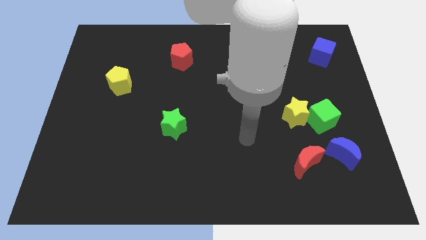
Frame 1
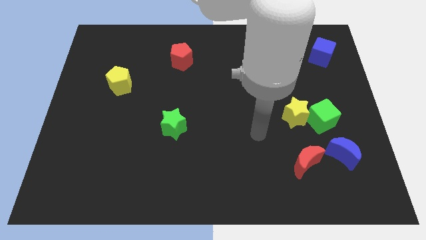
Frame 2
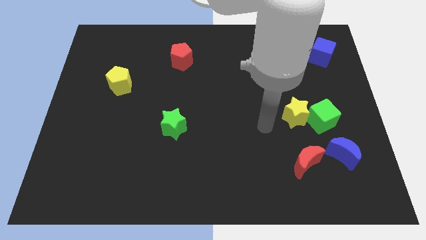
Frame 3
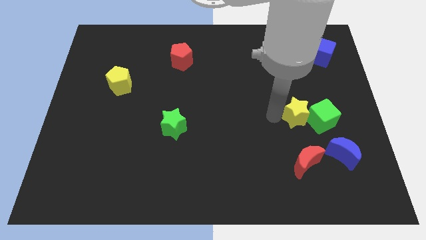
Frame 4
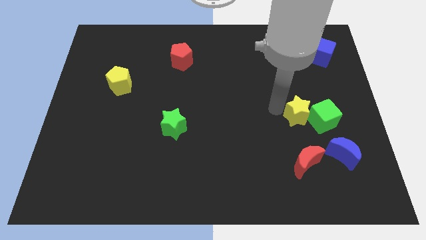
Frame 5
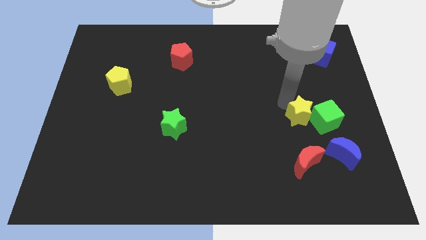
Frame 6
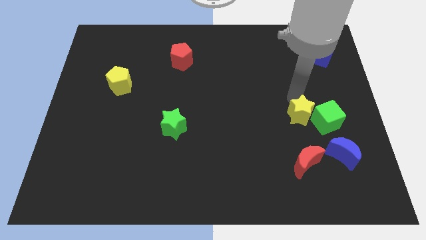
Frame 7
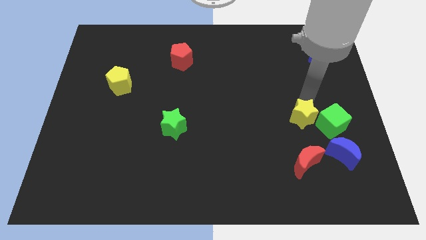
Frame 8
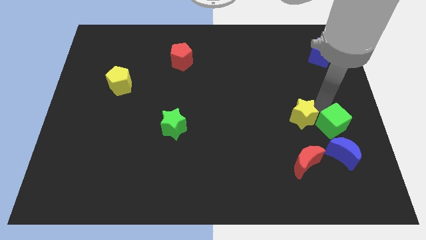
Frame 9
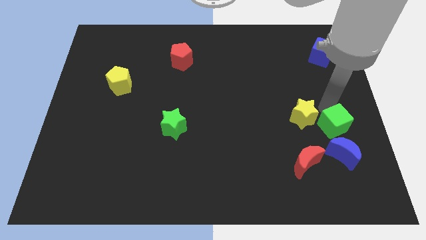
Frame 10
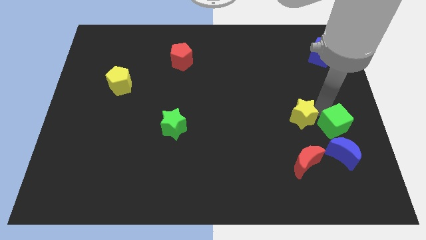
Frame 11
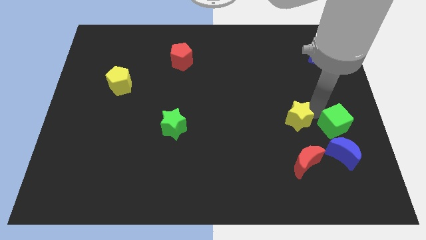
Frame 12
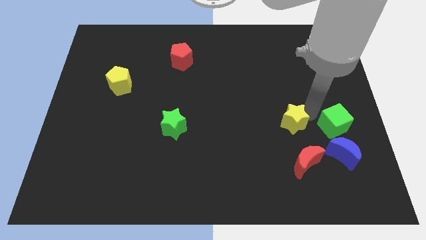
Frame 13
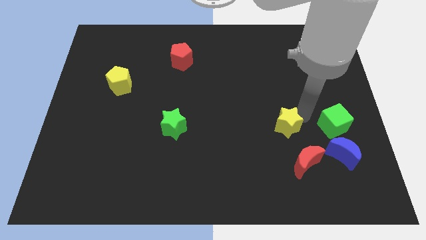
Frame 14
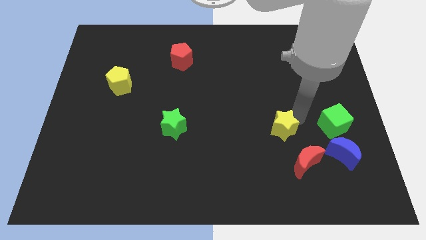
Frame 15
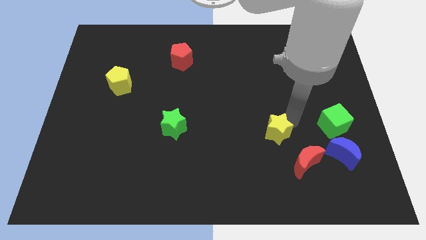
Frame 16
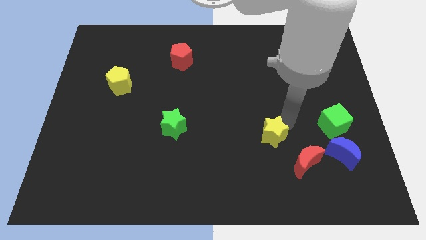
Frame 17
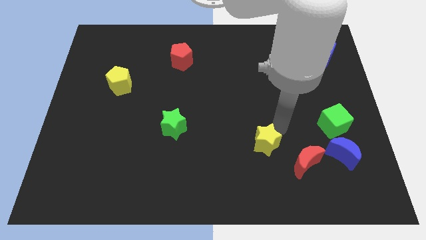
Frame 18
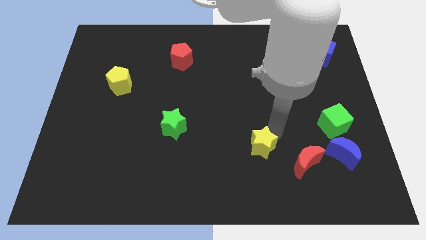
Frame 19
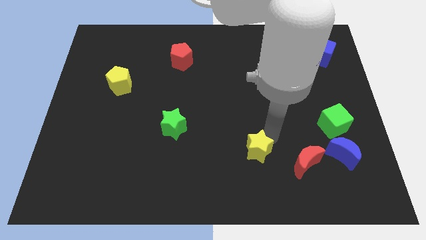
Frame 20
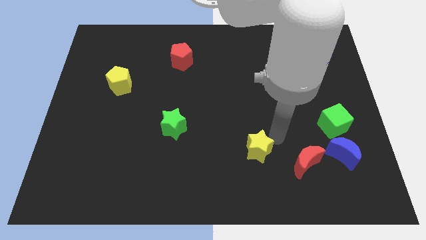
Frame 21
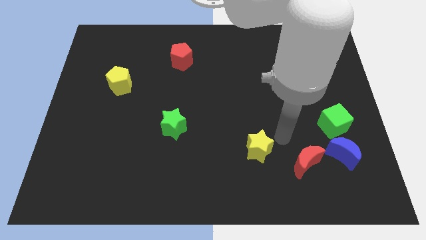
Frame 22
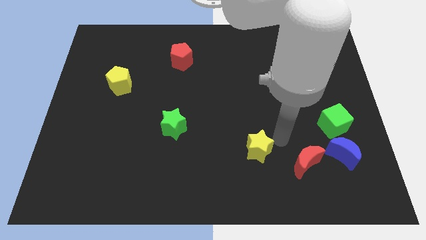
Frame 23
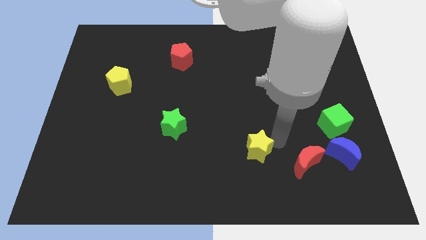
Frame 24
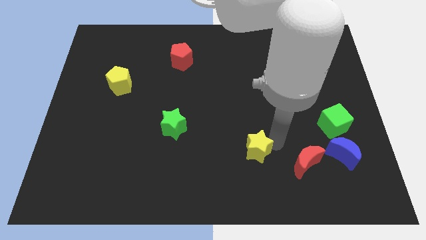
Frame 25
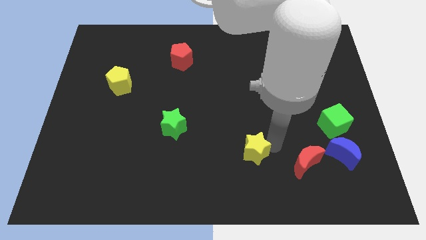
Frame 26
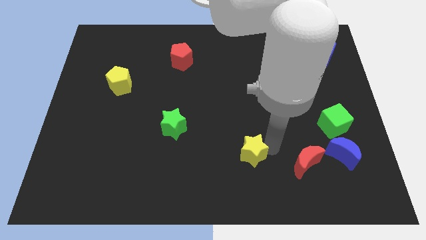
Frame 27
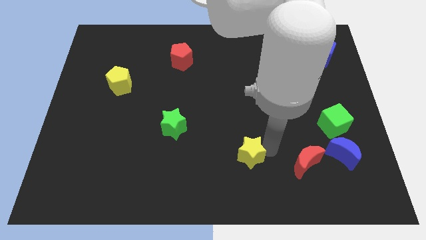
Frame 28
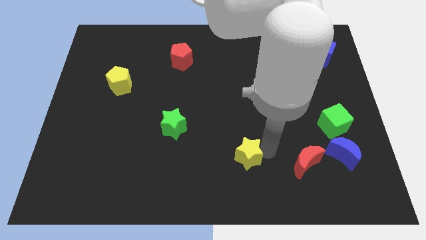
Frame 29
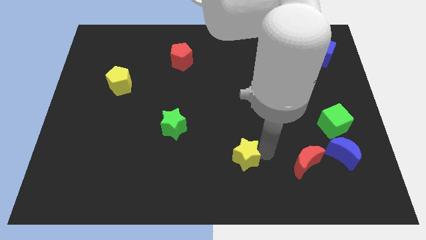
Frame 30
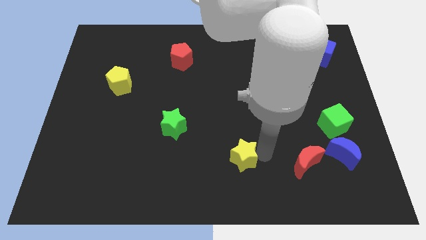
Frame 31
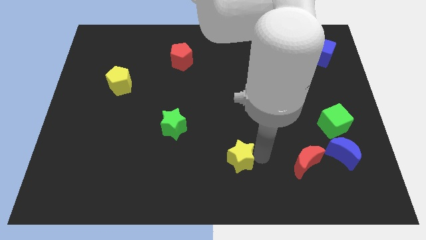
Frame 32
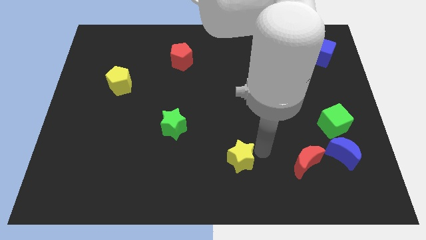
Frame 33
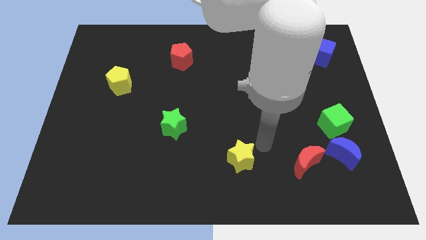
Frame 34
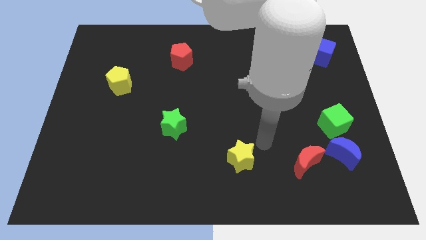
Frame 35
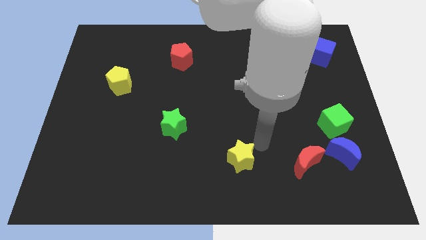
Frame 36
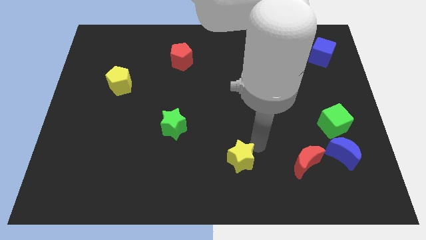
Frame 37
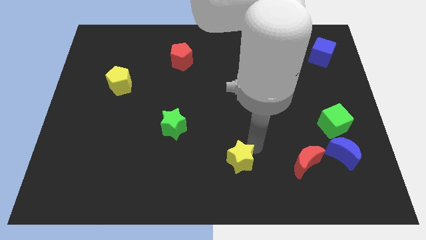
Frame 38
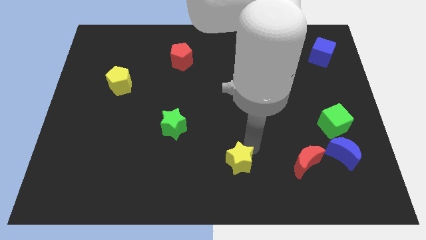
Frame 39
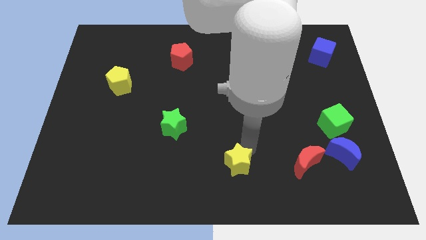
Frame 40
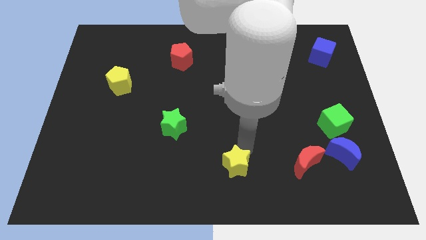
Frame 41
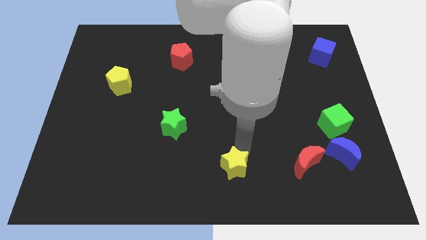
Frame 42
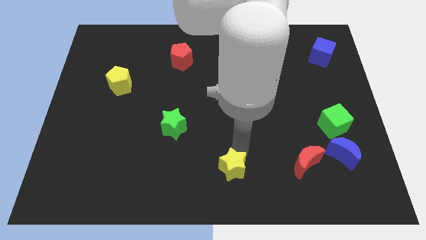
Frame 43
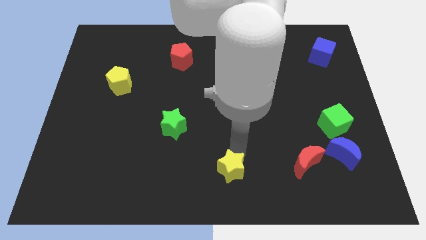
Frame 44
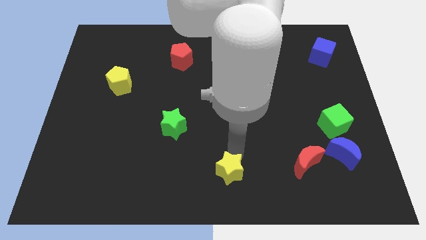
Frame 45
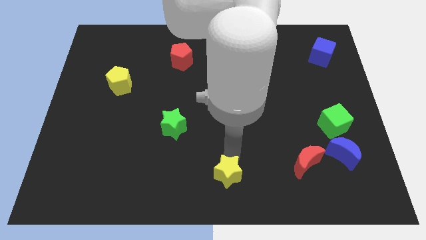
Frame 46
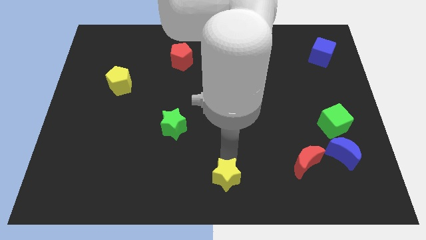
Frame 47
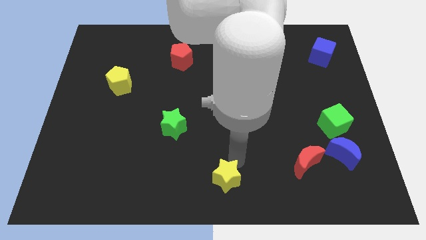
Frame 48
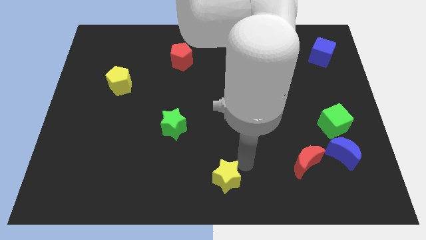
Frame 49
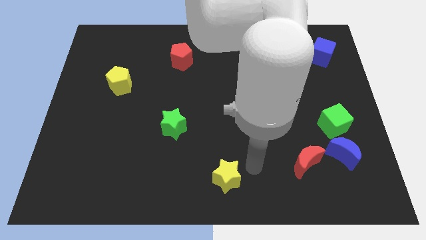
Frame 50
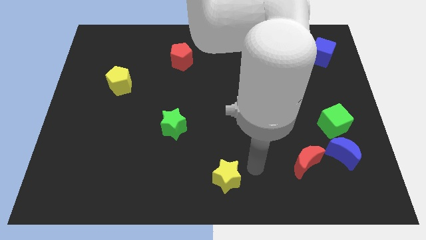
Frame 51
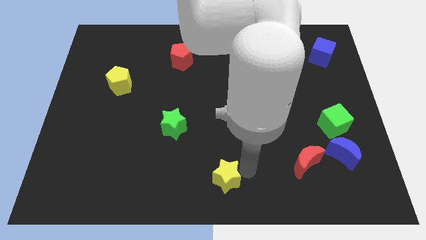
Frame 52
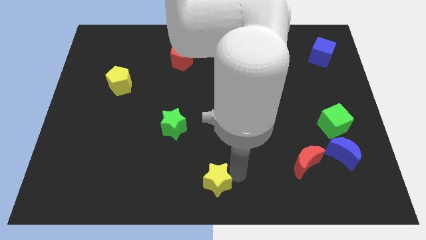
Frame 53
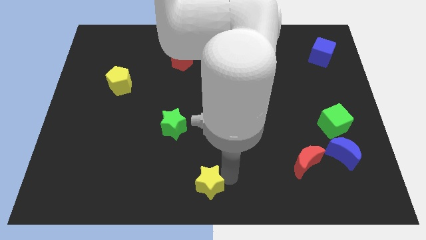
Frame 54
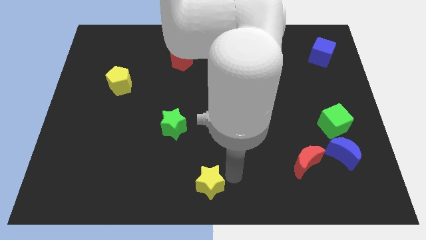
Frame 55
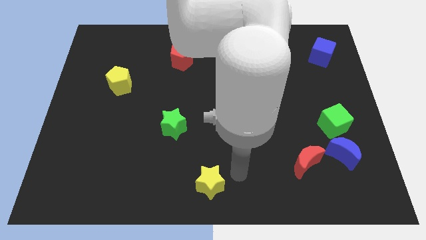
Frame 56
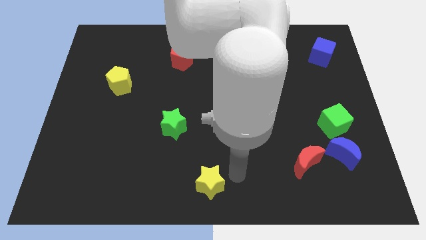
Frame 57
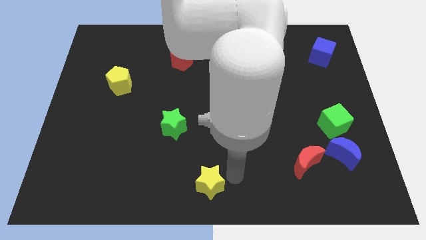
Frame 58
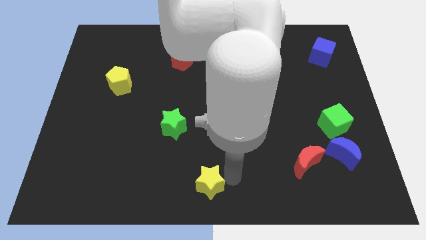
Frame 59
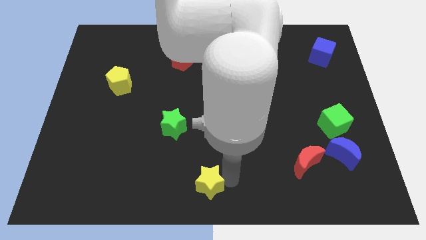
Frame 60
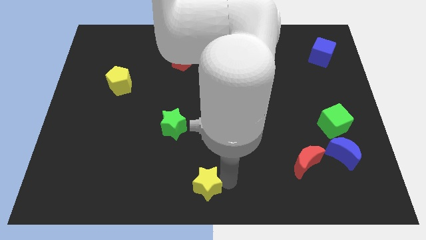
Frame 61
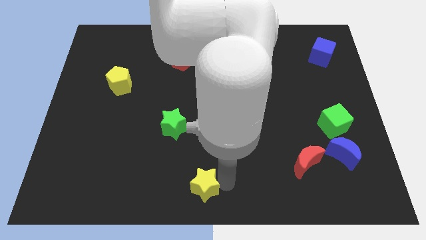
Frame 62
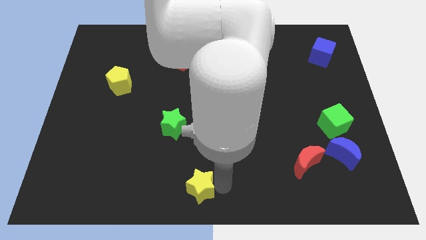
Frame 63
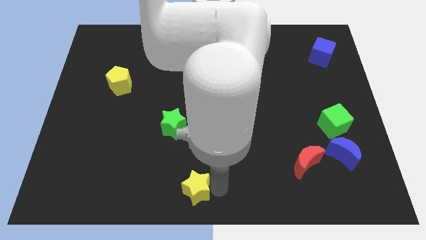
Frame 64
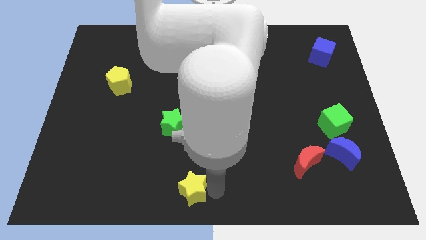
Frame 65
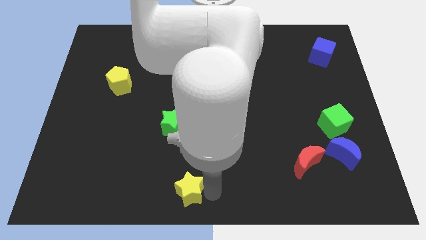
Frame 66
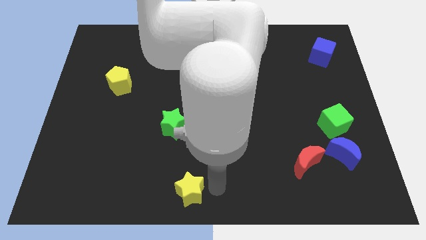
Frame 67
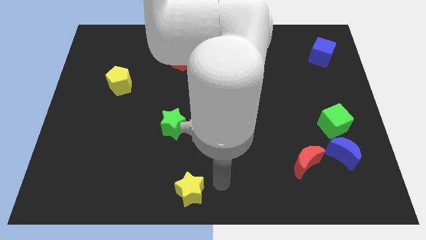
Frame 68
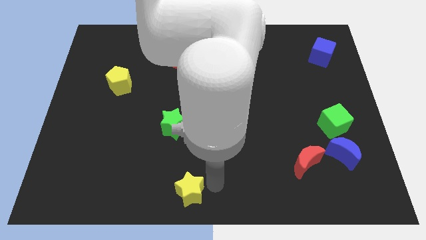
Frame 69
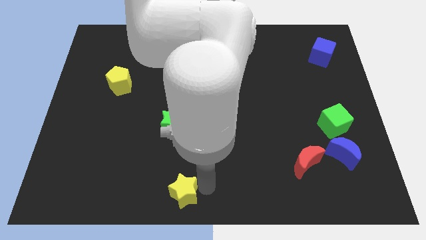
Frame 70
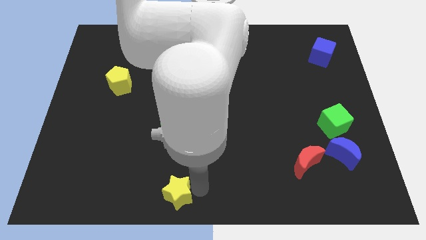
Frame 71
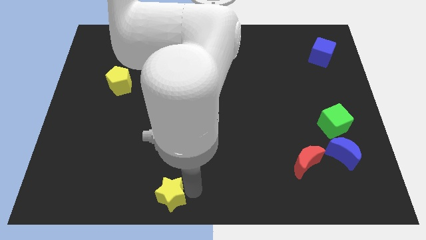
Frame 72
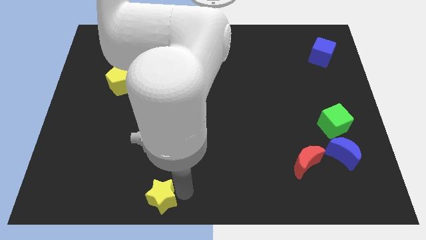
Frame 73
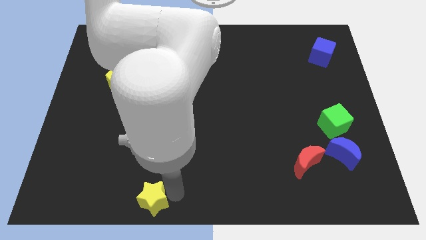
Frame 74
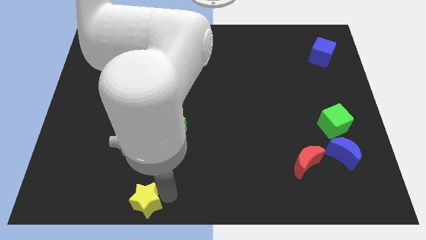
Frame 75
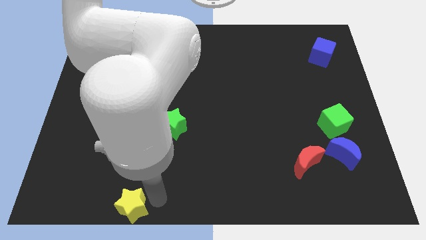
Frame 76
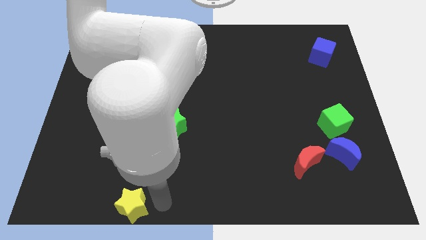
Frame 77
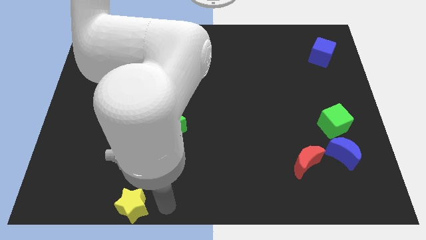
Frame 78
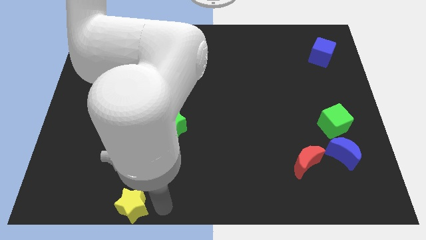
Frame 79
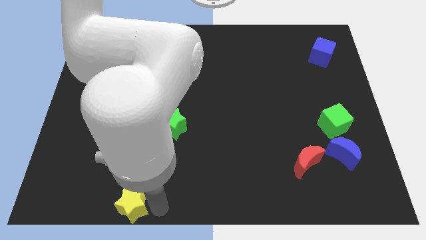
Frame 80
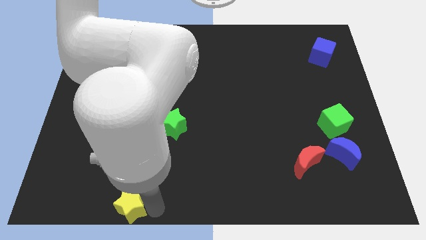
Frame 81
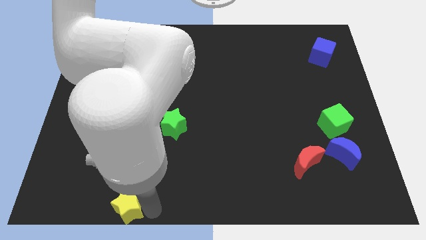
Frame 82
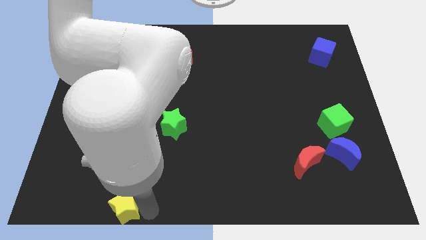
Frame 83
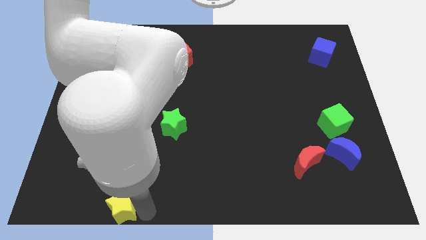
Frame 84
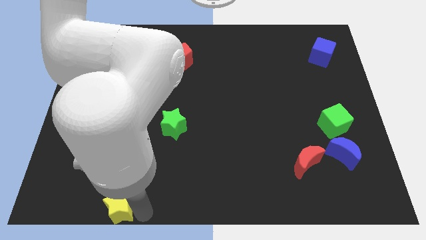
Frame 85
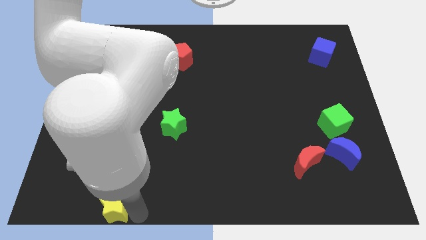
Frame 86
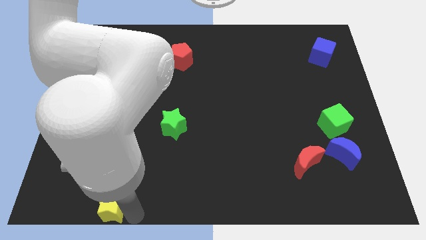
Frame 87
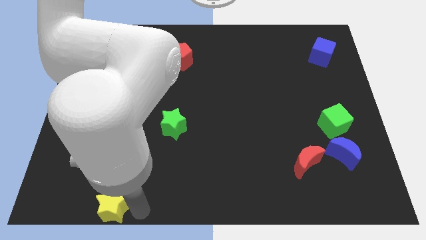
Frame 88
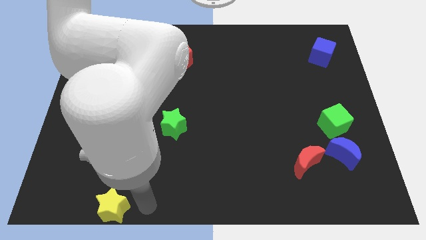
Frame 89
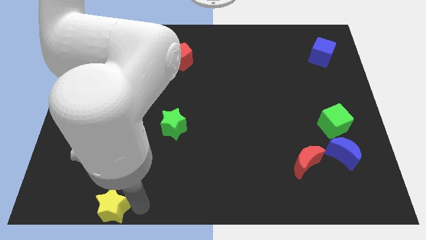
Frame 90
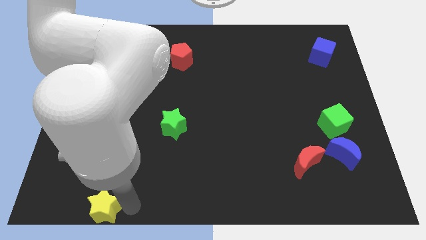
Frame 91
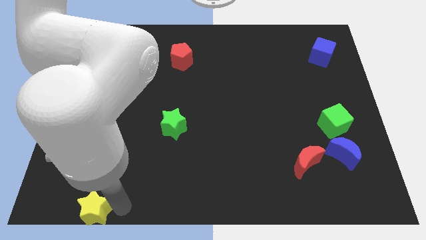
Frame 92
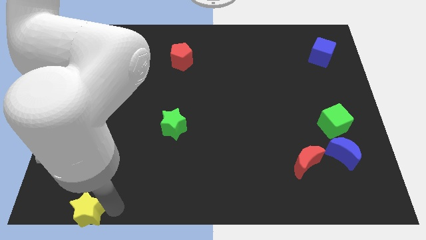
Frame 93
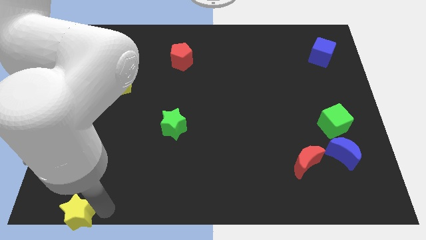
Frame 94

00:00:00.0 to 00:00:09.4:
move the yellow star to the bottom left of the board
